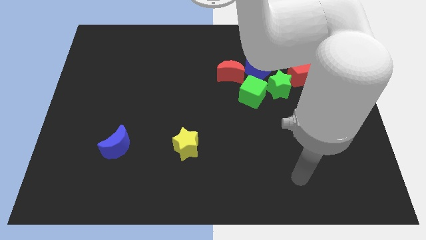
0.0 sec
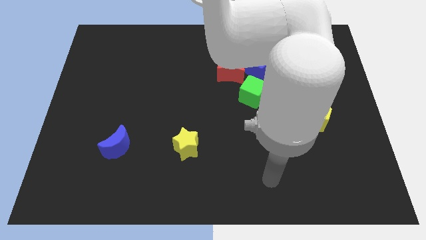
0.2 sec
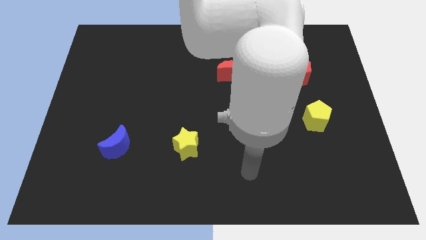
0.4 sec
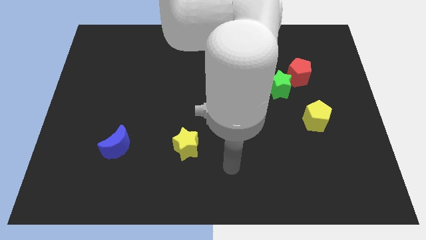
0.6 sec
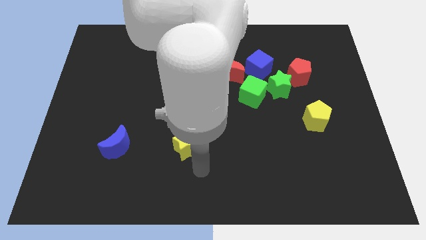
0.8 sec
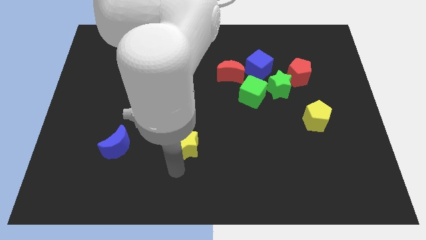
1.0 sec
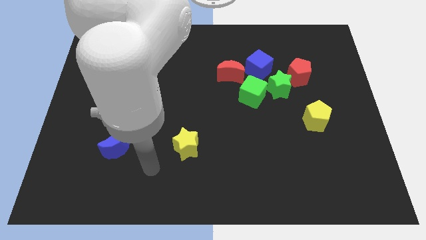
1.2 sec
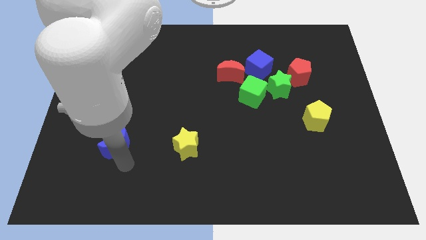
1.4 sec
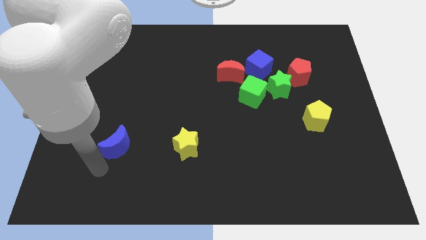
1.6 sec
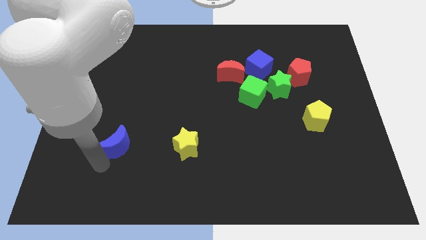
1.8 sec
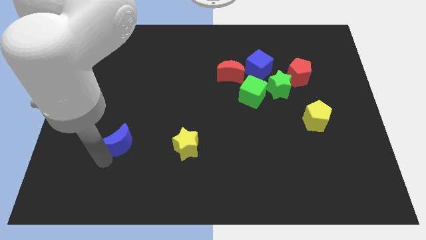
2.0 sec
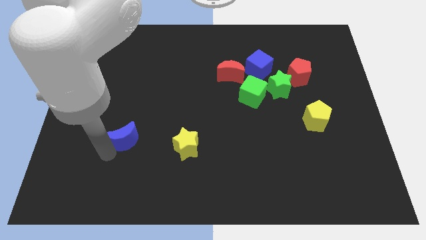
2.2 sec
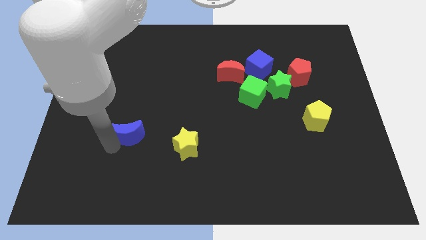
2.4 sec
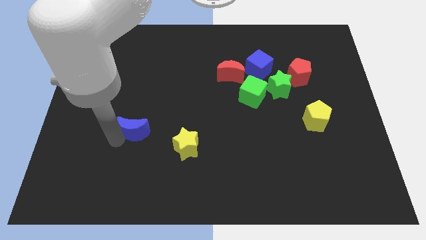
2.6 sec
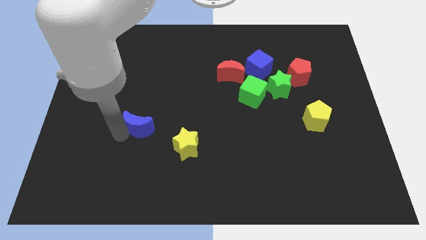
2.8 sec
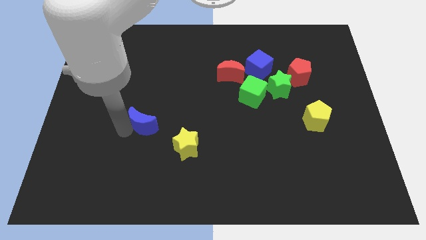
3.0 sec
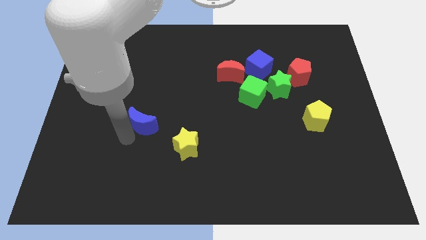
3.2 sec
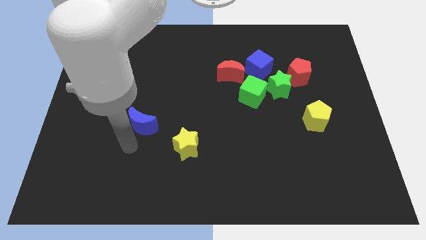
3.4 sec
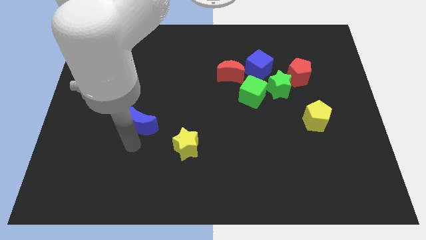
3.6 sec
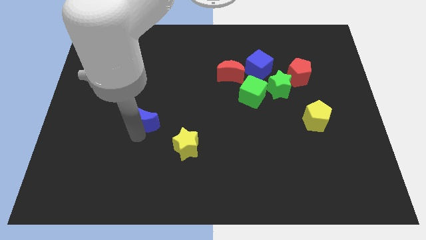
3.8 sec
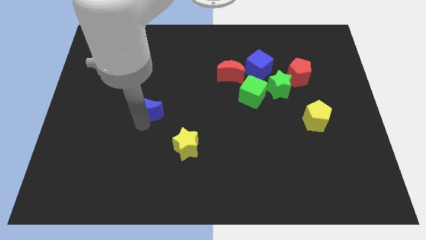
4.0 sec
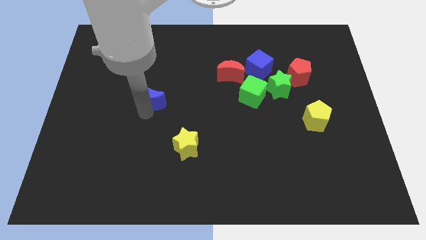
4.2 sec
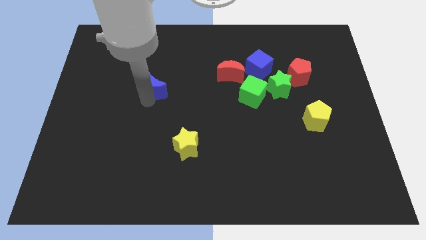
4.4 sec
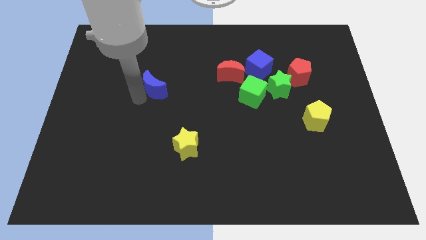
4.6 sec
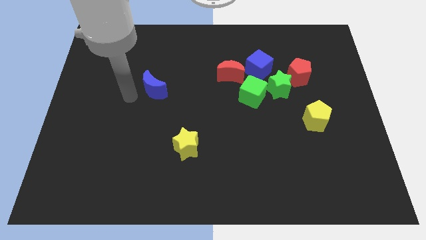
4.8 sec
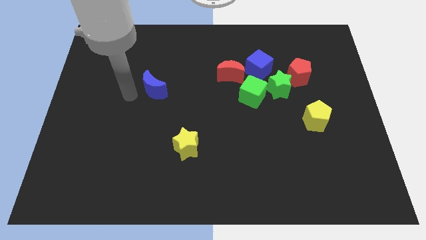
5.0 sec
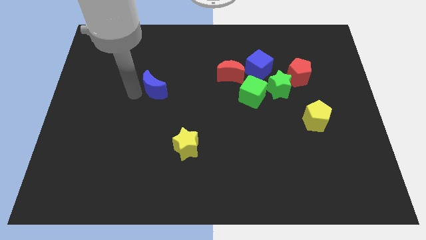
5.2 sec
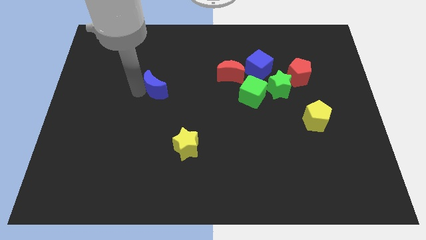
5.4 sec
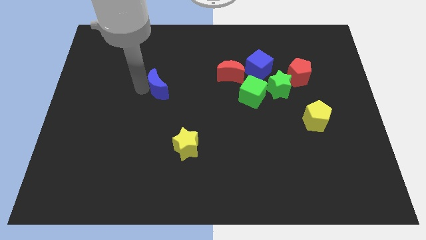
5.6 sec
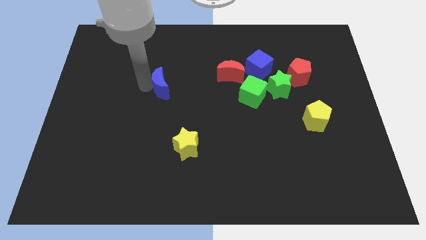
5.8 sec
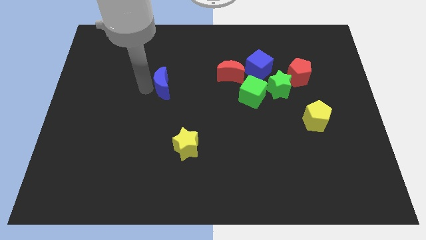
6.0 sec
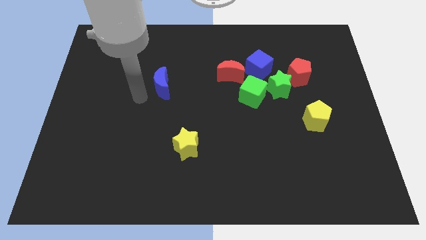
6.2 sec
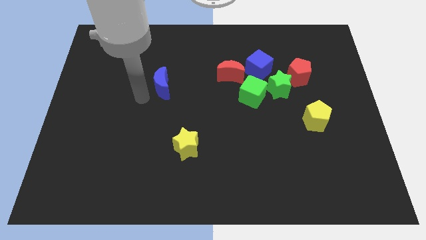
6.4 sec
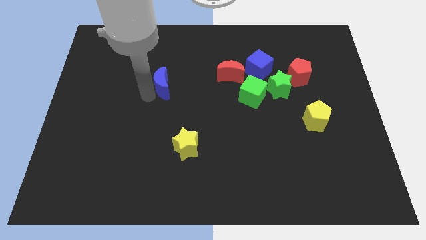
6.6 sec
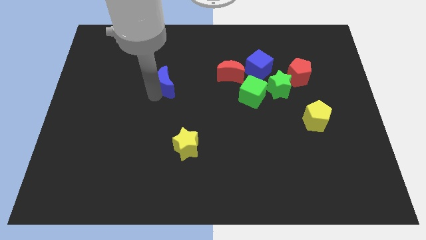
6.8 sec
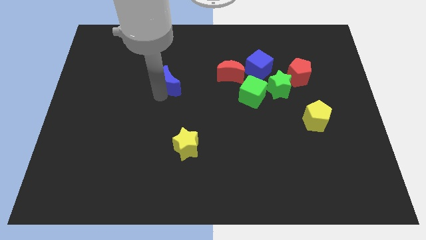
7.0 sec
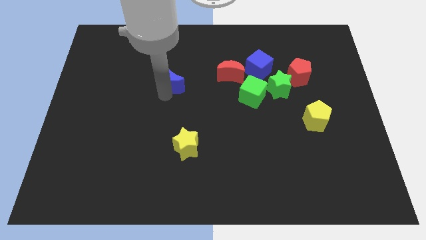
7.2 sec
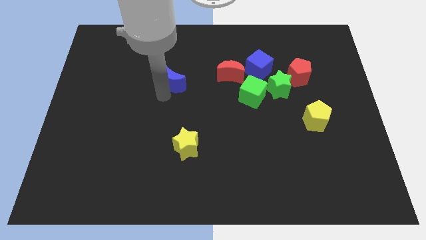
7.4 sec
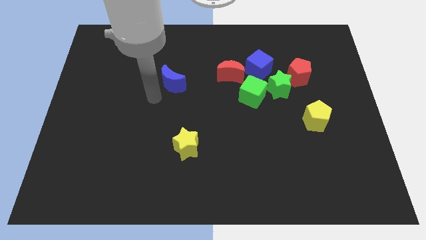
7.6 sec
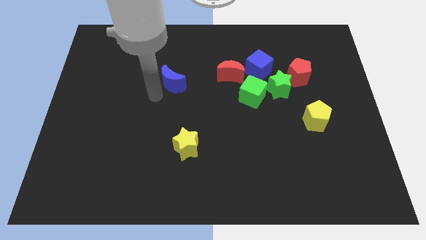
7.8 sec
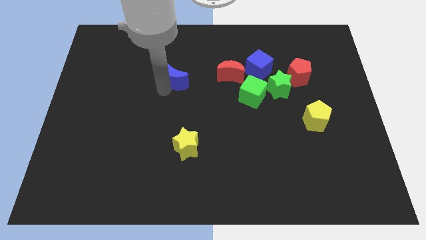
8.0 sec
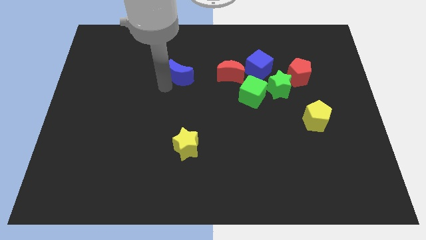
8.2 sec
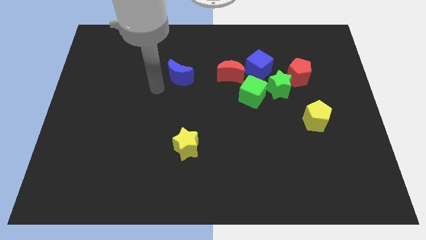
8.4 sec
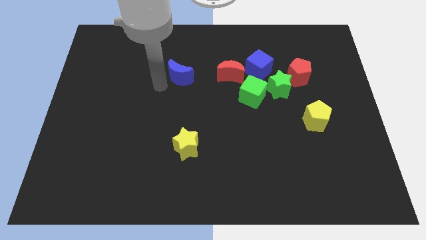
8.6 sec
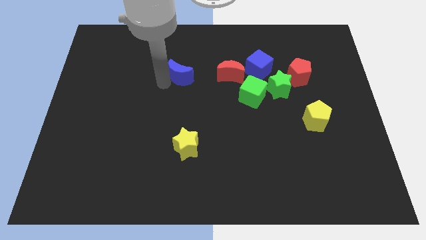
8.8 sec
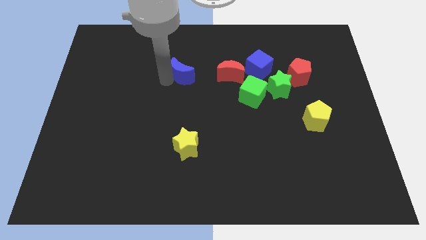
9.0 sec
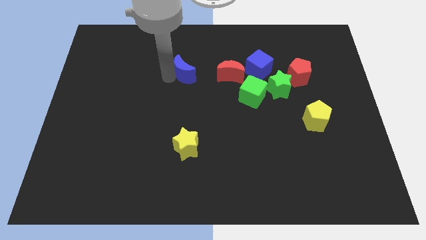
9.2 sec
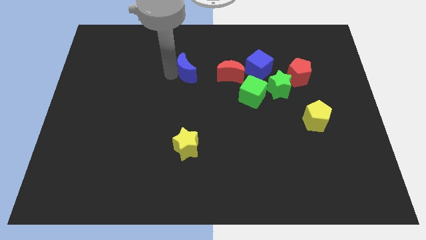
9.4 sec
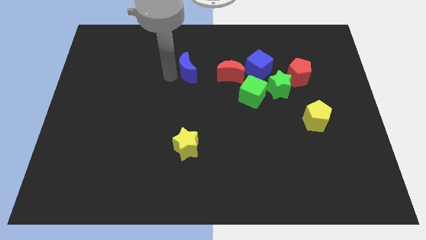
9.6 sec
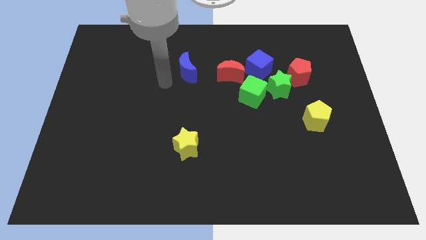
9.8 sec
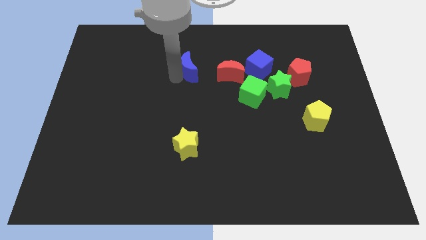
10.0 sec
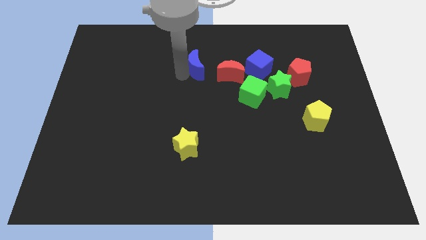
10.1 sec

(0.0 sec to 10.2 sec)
put the blue moon to the top left side of the red moon

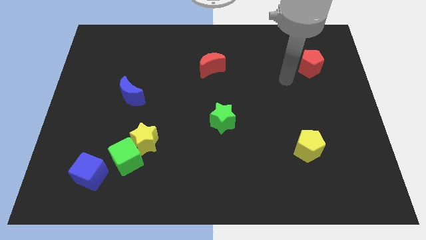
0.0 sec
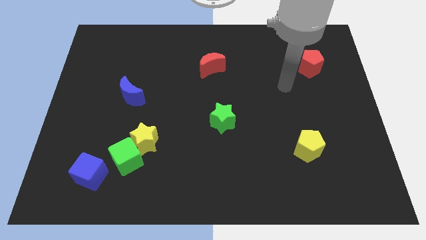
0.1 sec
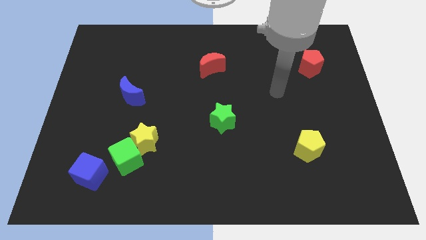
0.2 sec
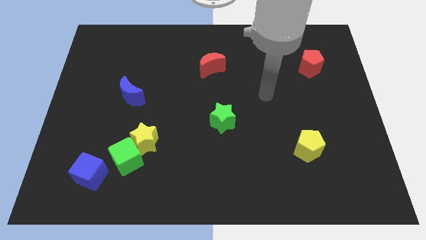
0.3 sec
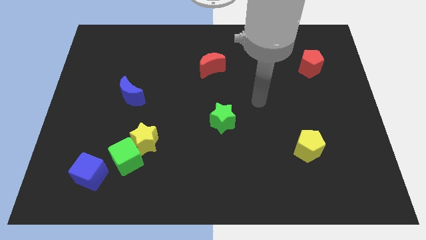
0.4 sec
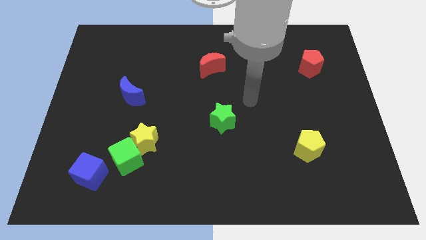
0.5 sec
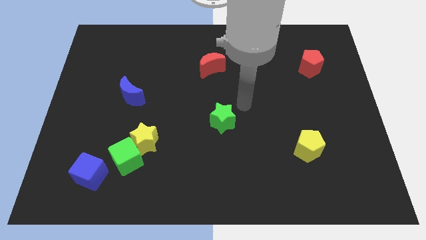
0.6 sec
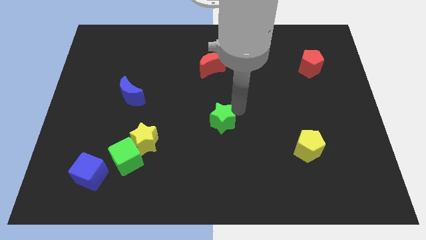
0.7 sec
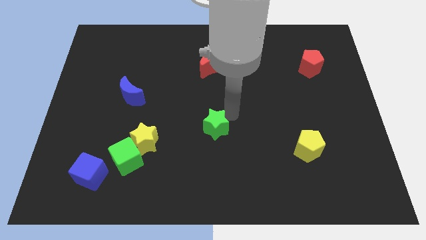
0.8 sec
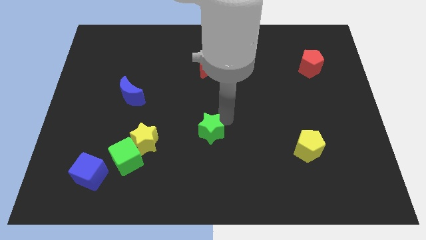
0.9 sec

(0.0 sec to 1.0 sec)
move the green star right of the yellow star
